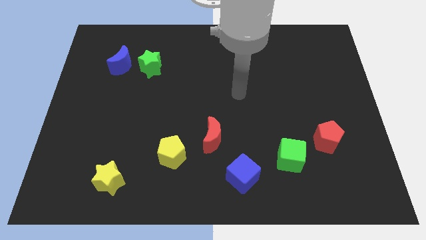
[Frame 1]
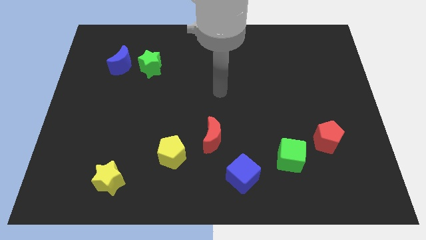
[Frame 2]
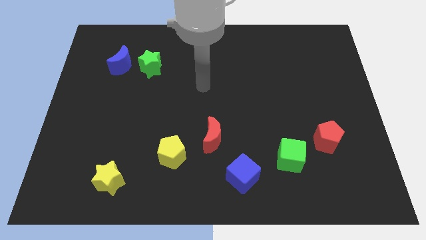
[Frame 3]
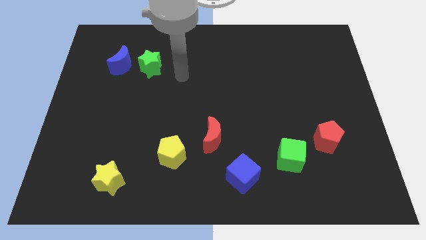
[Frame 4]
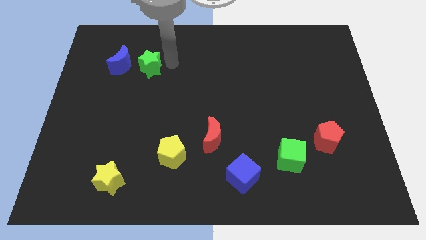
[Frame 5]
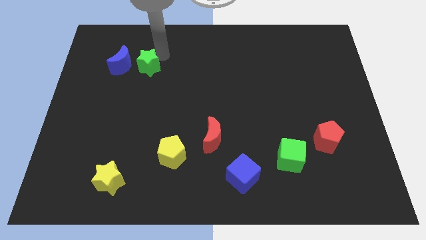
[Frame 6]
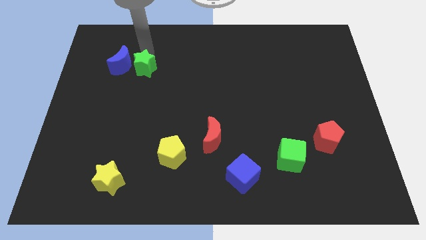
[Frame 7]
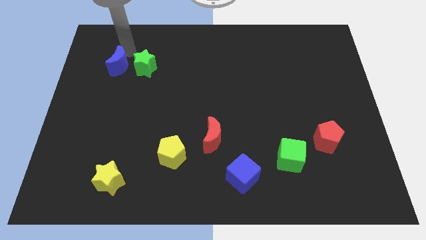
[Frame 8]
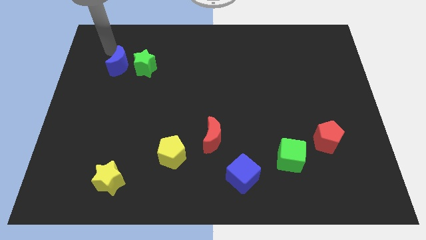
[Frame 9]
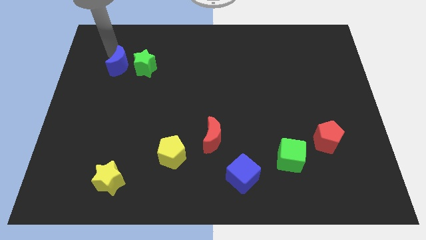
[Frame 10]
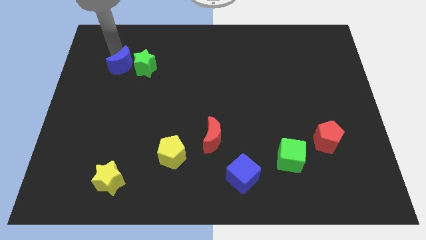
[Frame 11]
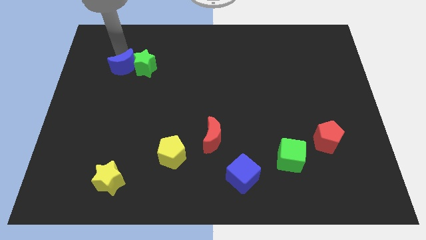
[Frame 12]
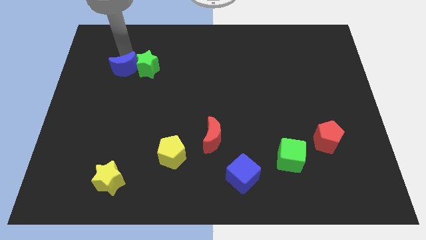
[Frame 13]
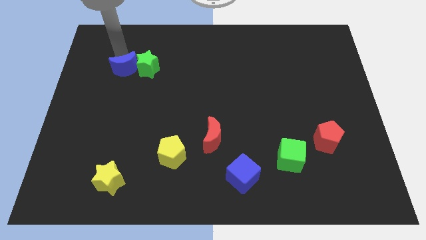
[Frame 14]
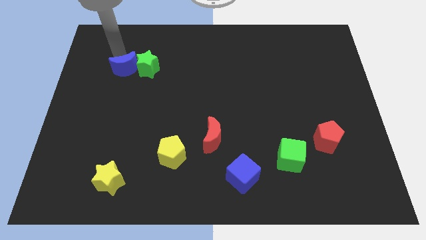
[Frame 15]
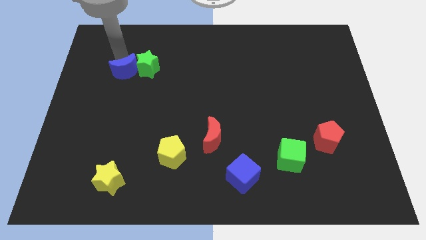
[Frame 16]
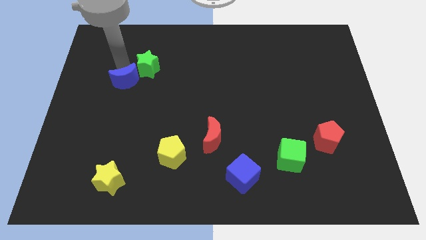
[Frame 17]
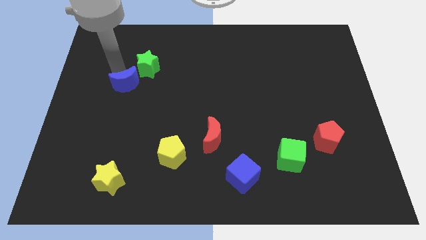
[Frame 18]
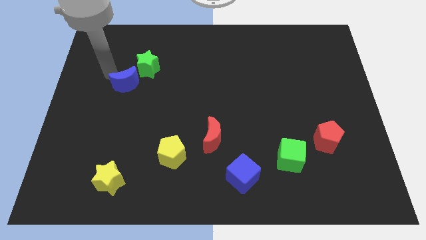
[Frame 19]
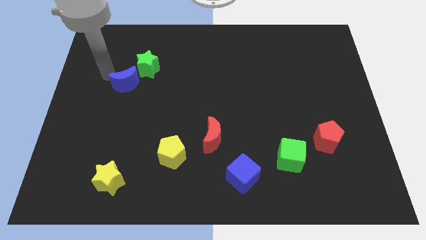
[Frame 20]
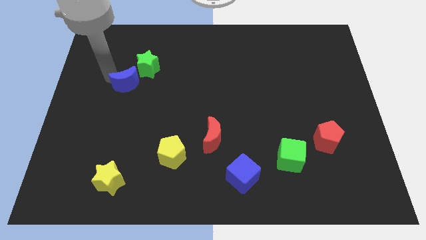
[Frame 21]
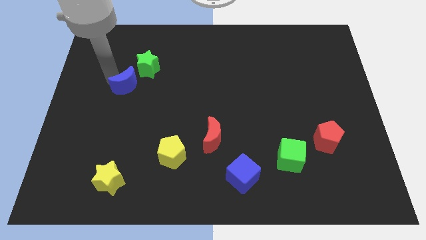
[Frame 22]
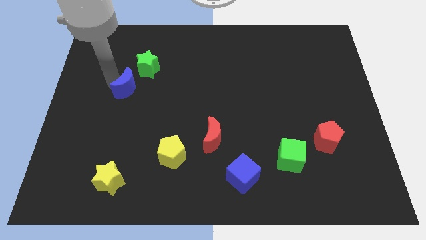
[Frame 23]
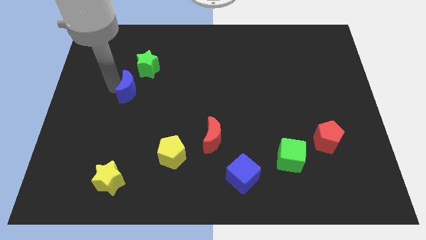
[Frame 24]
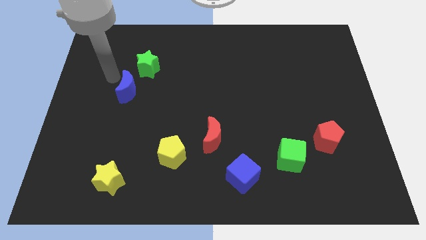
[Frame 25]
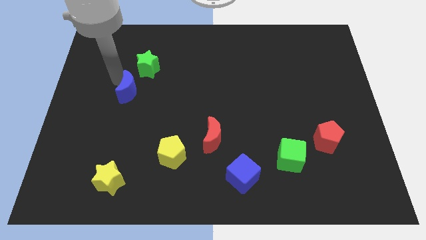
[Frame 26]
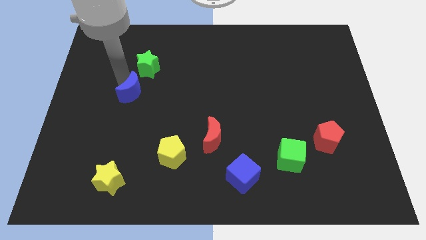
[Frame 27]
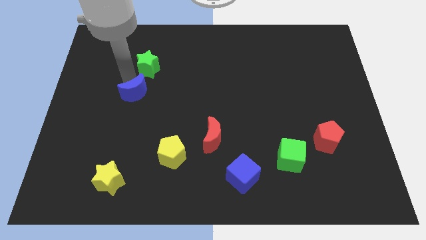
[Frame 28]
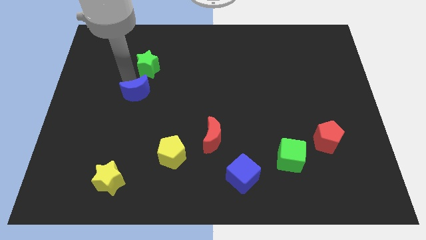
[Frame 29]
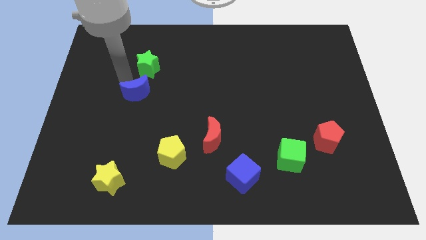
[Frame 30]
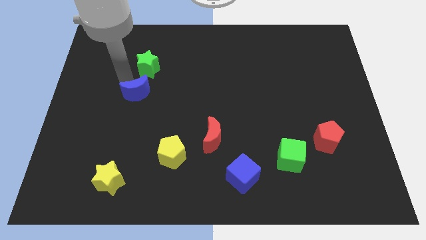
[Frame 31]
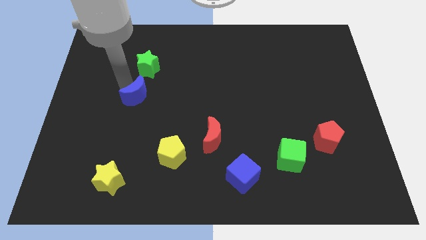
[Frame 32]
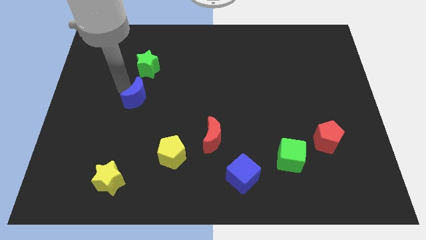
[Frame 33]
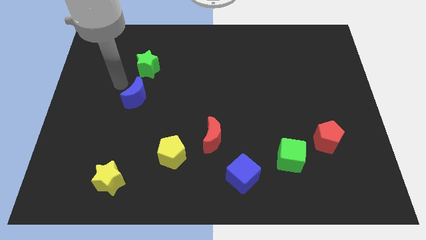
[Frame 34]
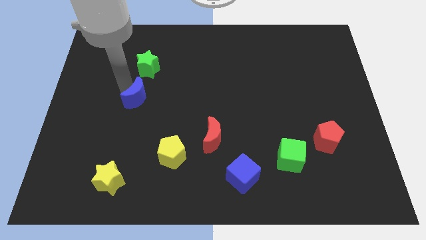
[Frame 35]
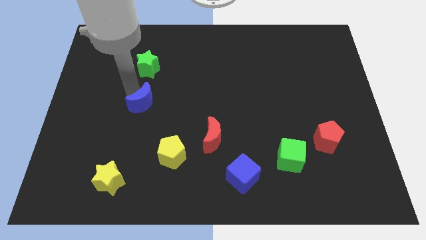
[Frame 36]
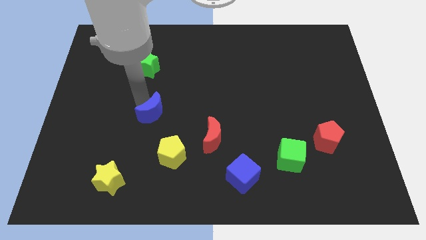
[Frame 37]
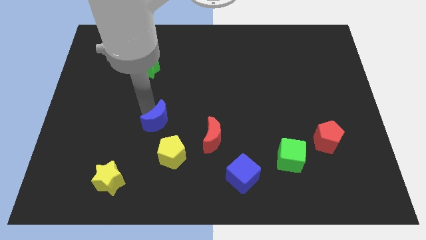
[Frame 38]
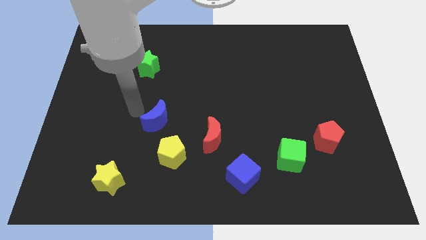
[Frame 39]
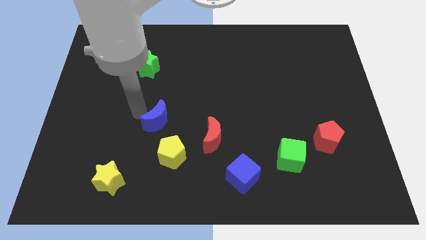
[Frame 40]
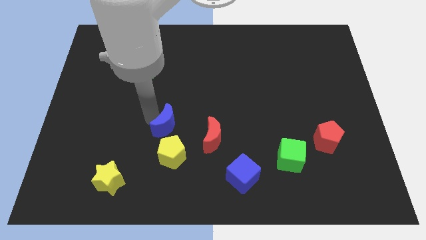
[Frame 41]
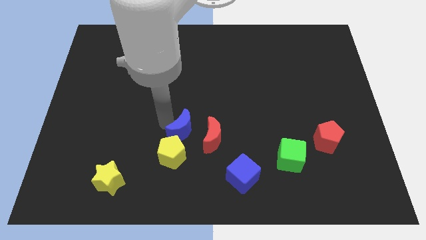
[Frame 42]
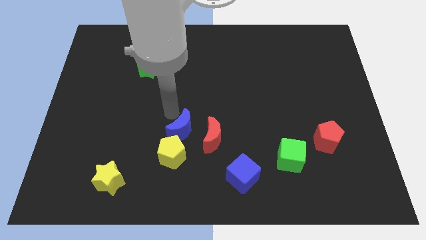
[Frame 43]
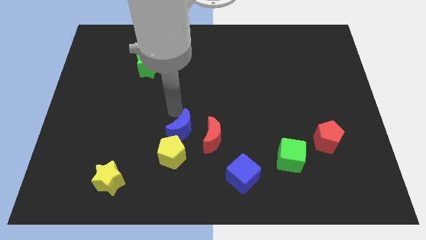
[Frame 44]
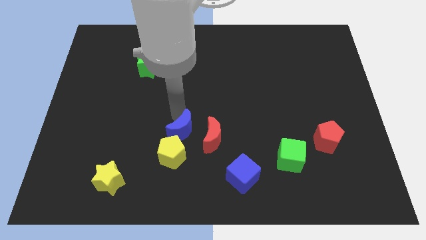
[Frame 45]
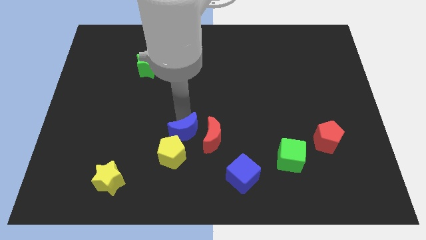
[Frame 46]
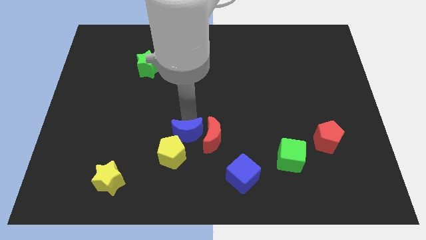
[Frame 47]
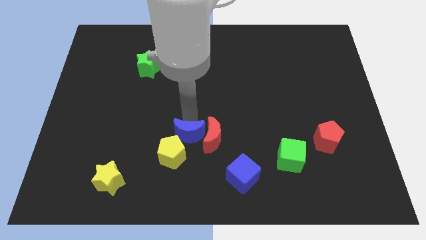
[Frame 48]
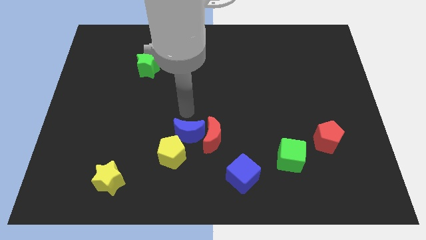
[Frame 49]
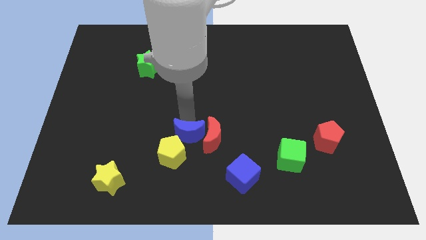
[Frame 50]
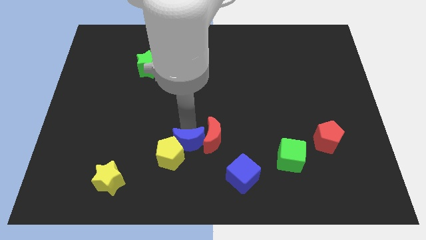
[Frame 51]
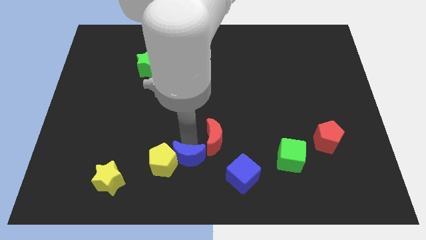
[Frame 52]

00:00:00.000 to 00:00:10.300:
put the blue moon left of the blue cube

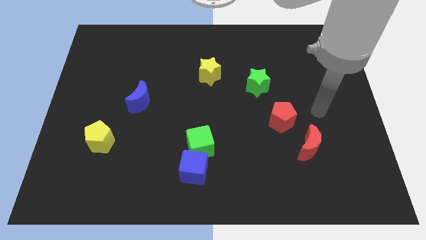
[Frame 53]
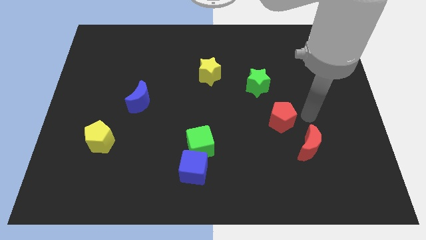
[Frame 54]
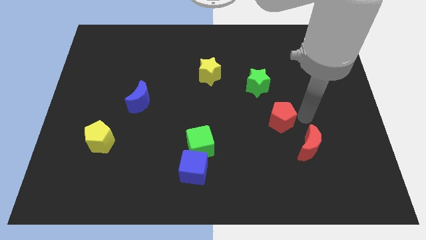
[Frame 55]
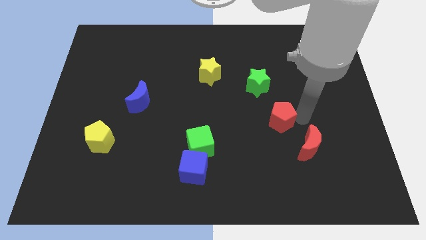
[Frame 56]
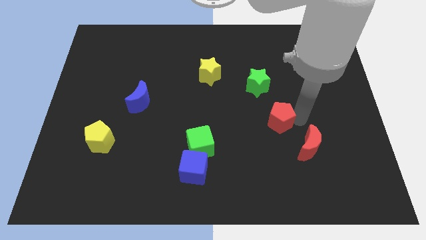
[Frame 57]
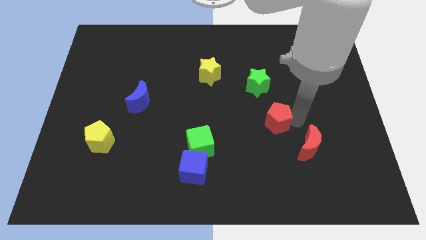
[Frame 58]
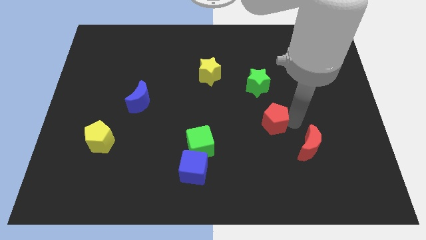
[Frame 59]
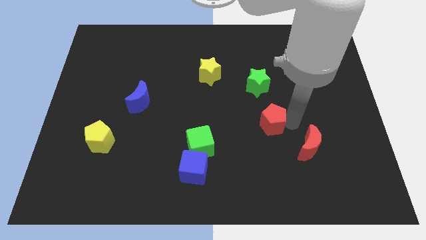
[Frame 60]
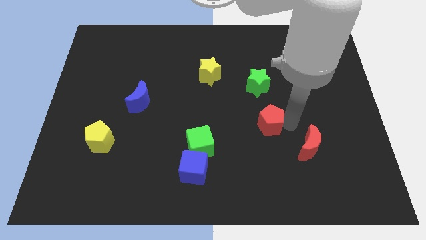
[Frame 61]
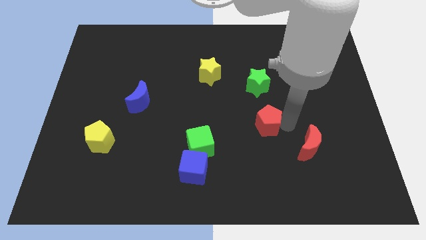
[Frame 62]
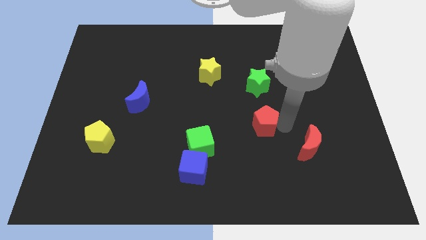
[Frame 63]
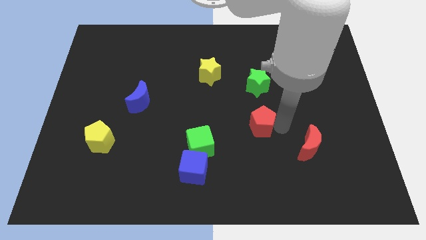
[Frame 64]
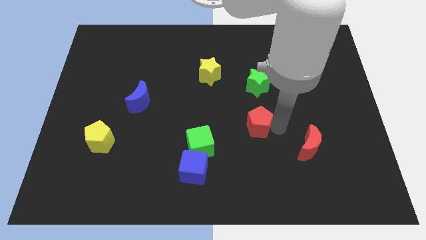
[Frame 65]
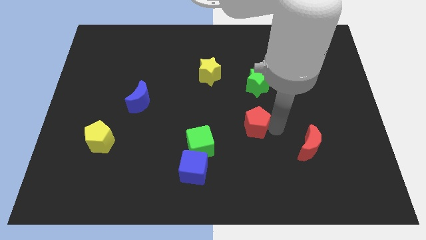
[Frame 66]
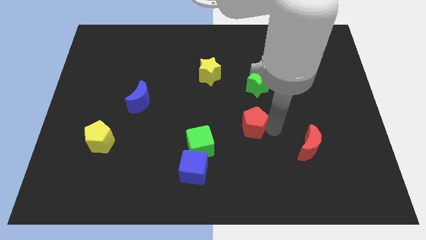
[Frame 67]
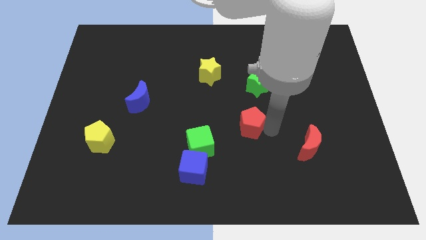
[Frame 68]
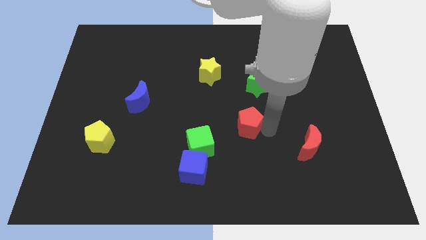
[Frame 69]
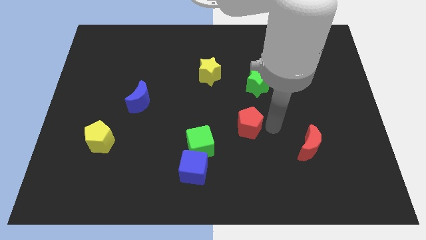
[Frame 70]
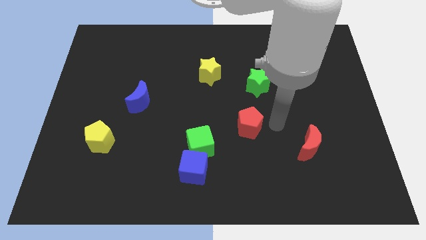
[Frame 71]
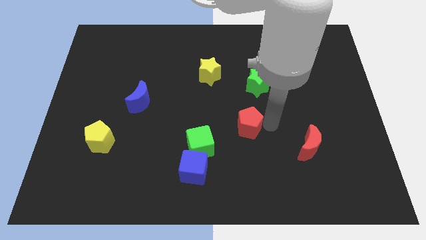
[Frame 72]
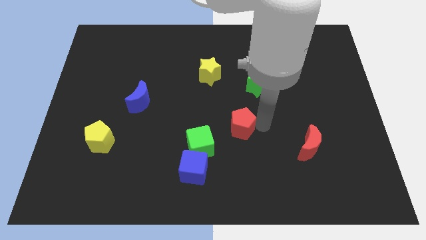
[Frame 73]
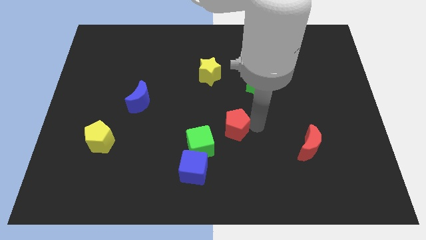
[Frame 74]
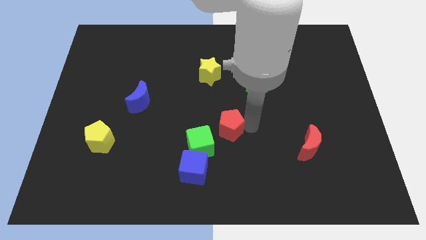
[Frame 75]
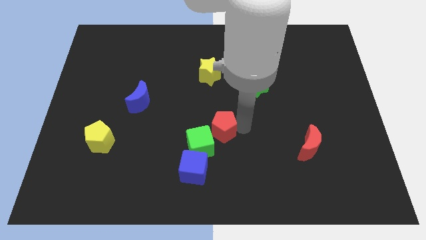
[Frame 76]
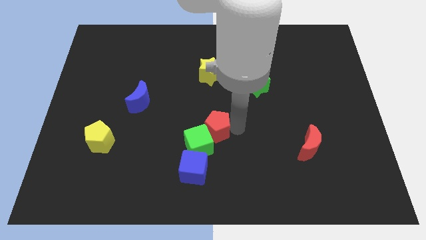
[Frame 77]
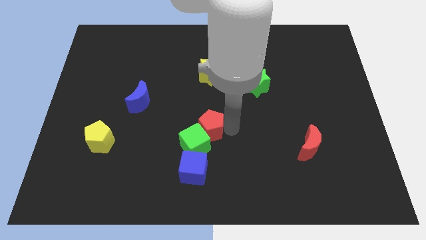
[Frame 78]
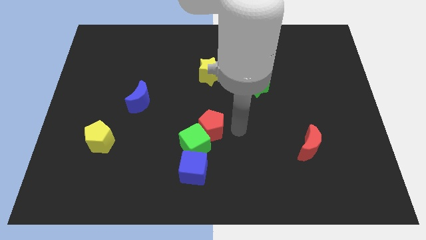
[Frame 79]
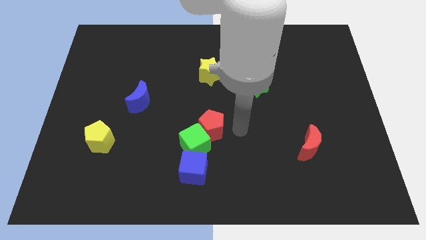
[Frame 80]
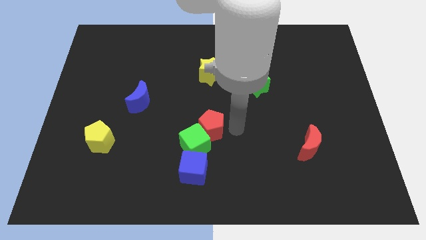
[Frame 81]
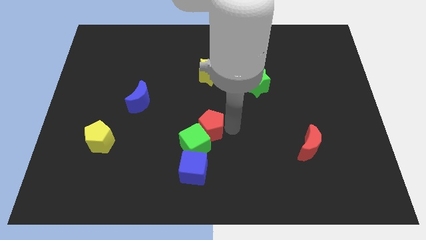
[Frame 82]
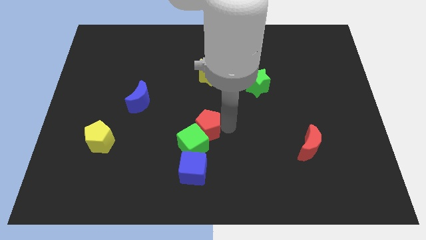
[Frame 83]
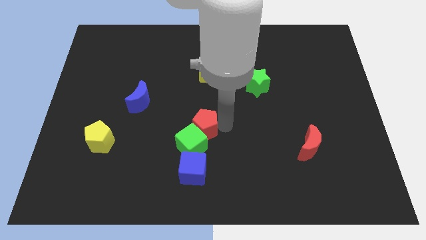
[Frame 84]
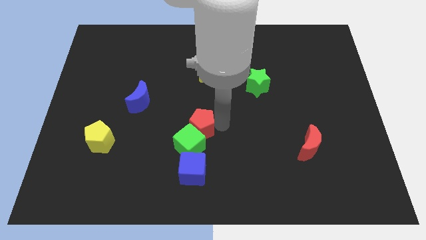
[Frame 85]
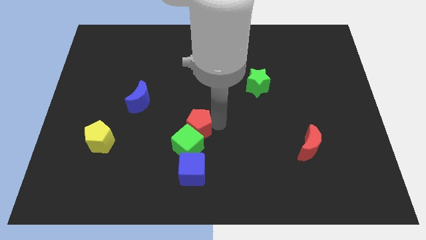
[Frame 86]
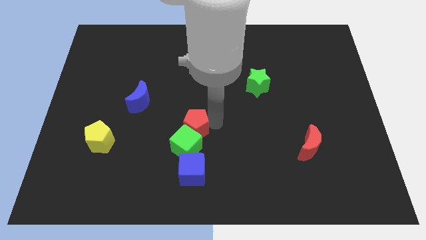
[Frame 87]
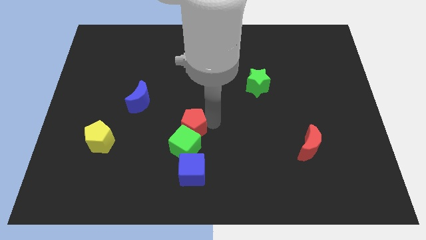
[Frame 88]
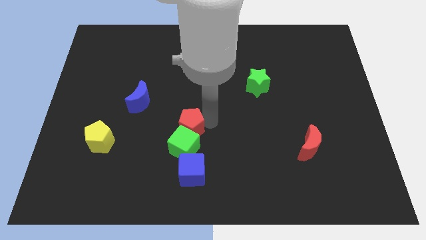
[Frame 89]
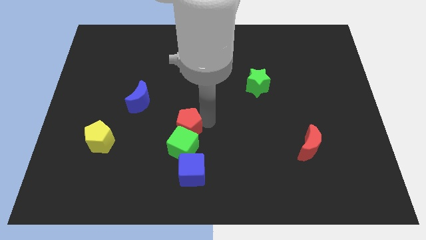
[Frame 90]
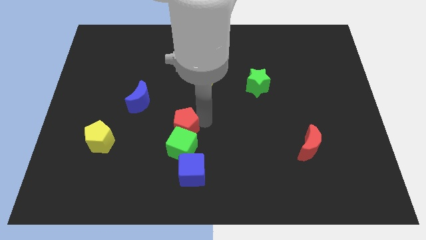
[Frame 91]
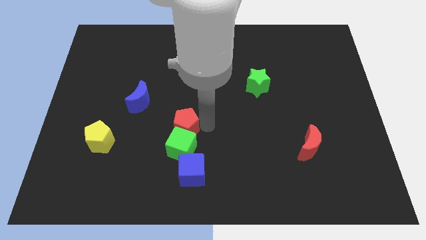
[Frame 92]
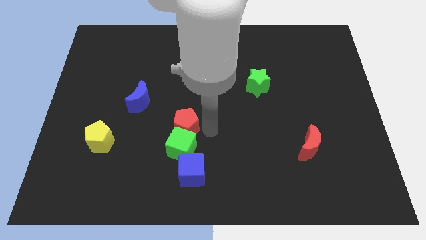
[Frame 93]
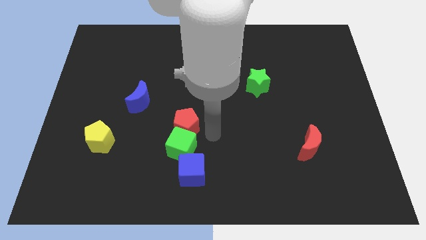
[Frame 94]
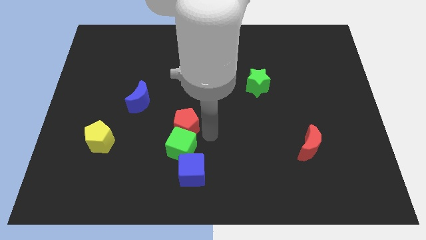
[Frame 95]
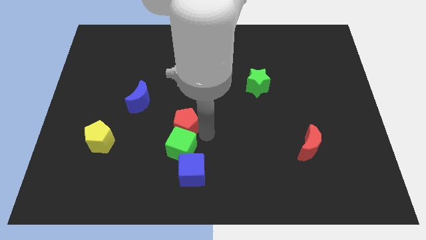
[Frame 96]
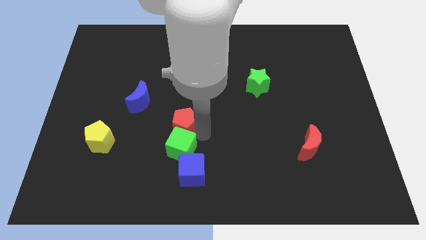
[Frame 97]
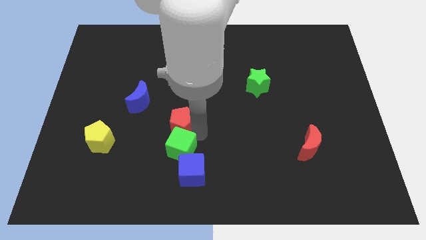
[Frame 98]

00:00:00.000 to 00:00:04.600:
push the red pentagon to the bottom right of the blue moon
